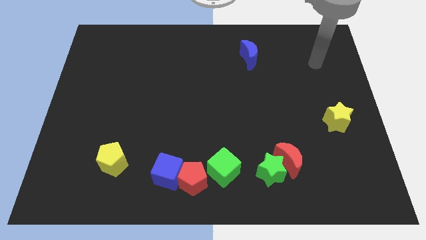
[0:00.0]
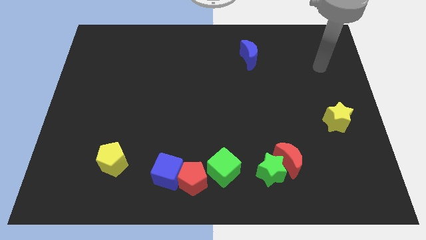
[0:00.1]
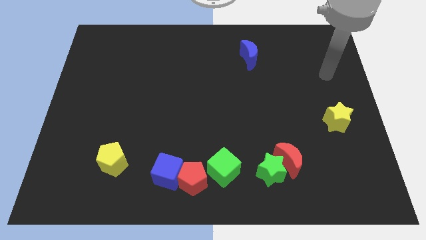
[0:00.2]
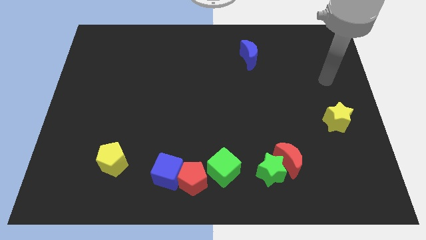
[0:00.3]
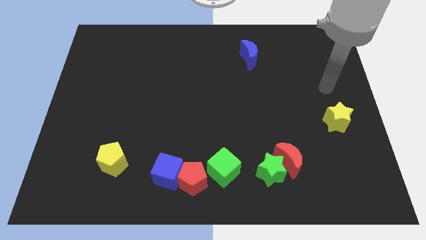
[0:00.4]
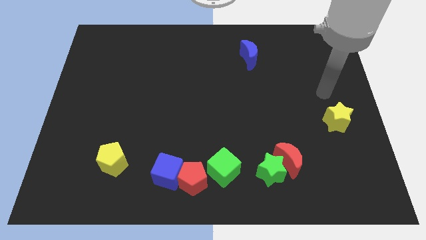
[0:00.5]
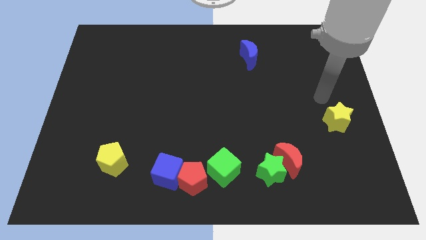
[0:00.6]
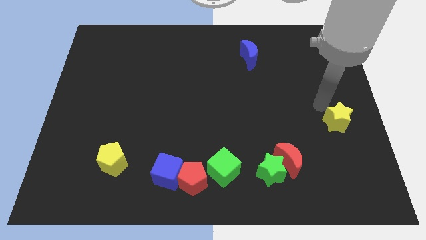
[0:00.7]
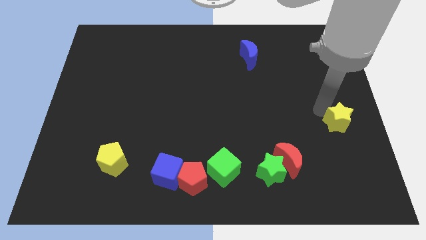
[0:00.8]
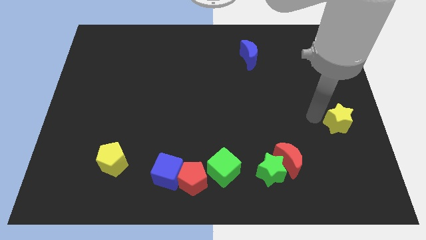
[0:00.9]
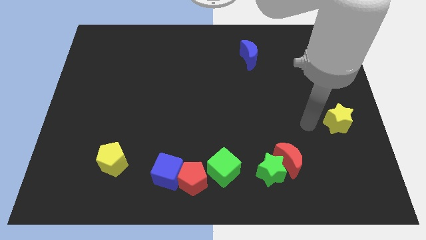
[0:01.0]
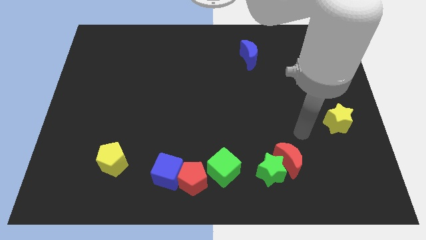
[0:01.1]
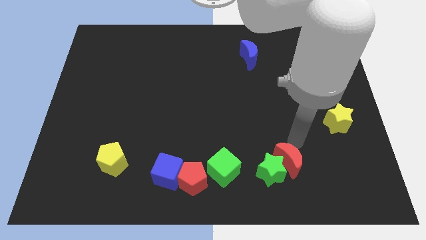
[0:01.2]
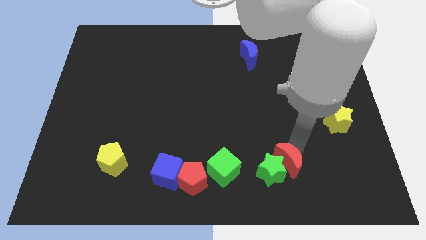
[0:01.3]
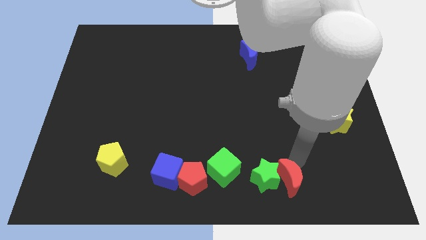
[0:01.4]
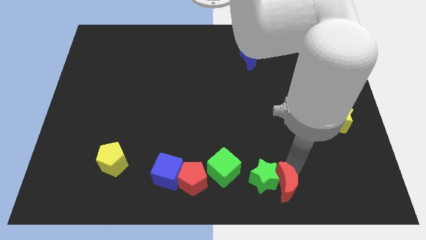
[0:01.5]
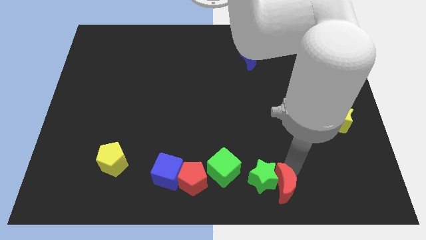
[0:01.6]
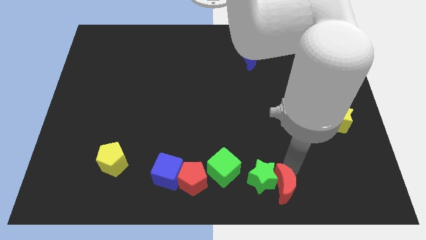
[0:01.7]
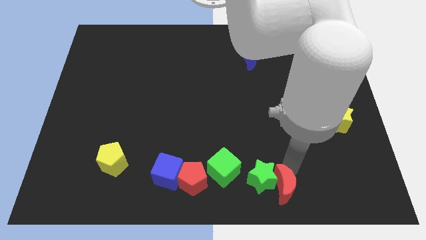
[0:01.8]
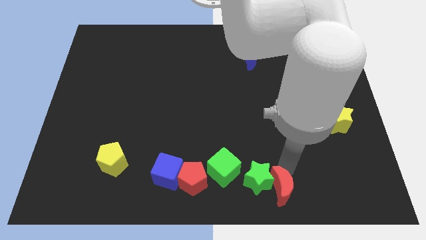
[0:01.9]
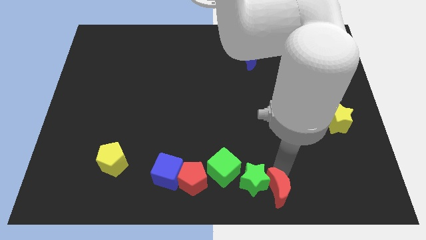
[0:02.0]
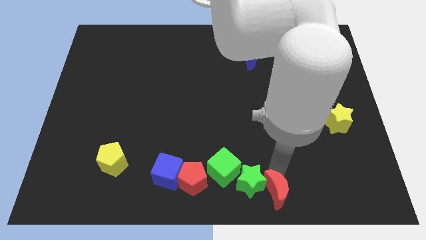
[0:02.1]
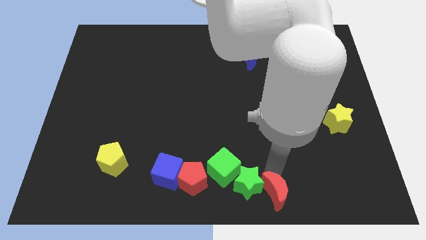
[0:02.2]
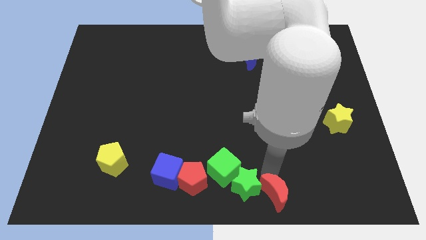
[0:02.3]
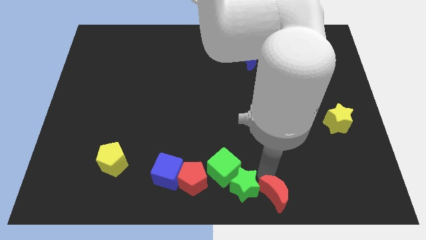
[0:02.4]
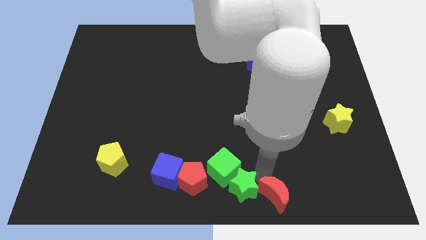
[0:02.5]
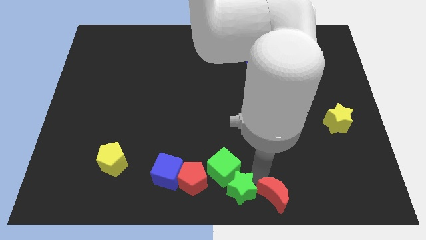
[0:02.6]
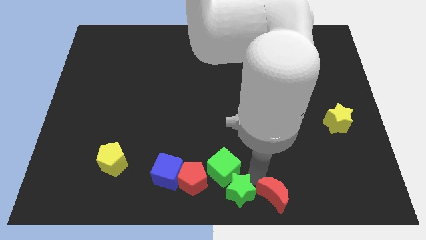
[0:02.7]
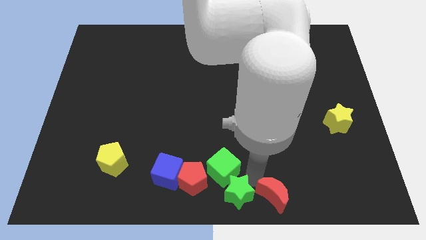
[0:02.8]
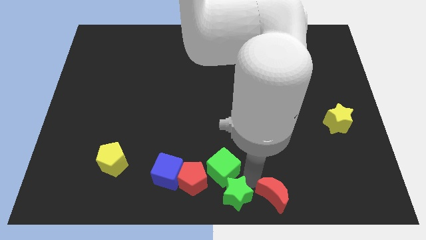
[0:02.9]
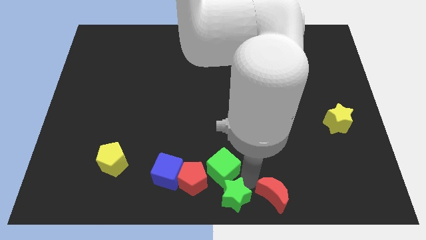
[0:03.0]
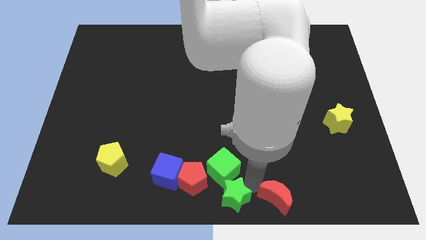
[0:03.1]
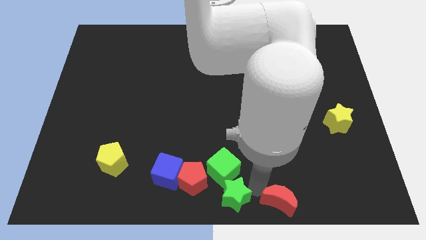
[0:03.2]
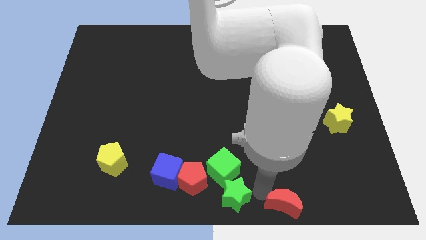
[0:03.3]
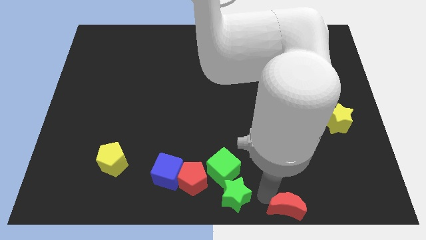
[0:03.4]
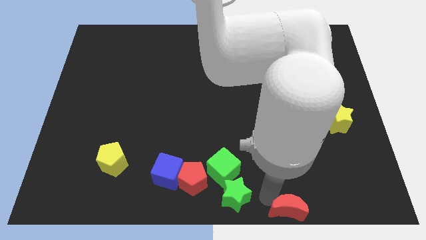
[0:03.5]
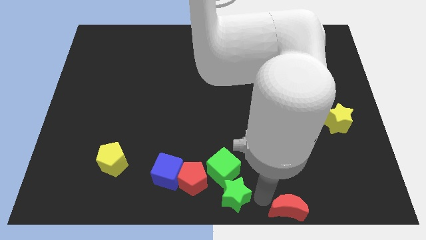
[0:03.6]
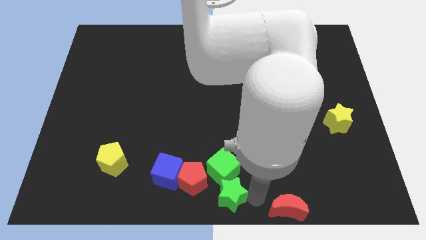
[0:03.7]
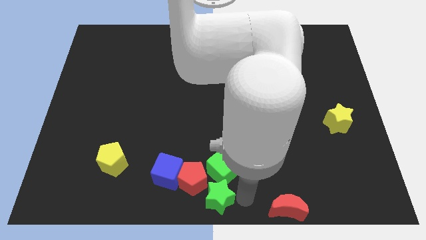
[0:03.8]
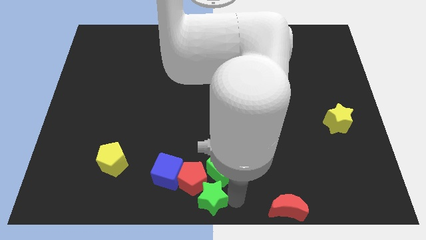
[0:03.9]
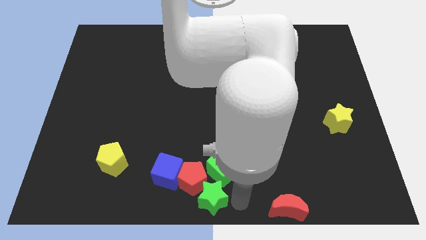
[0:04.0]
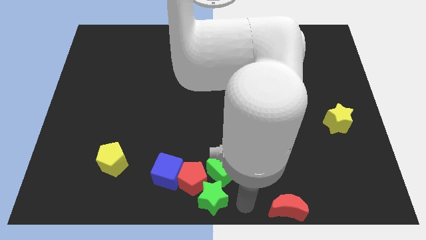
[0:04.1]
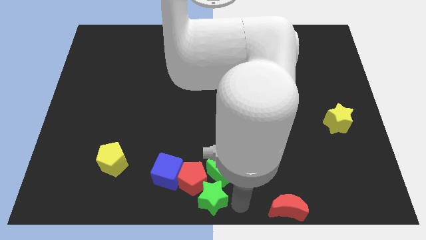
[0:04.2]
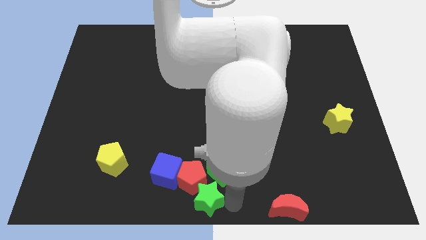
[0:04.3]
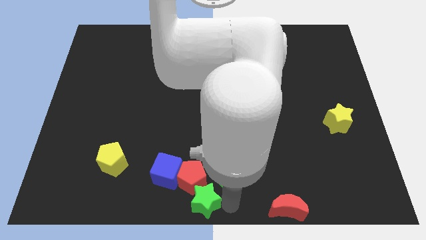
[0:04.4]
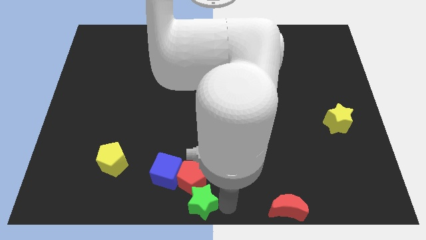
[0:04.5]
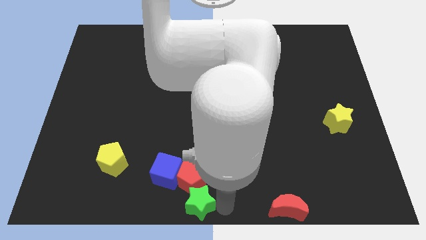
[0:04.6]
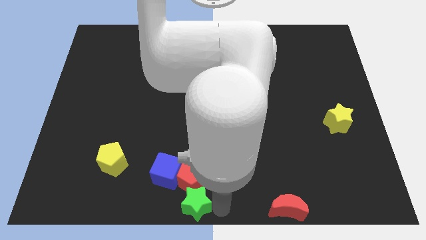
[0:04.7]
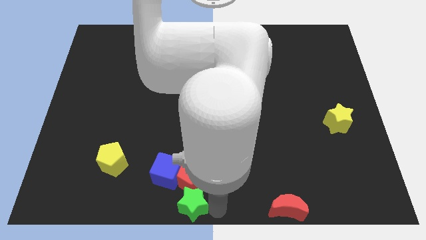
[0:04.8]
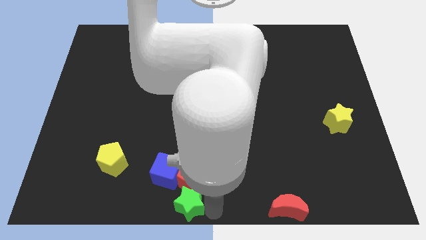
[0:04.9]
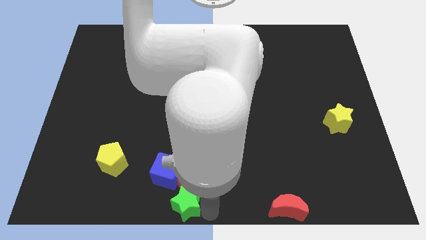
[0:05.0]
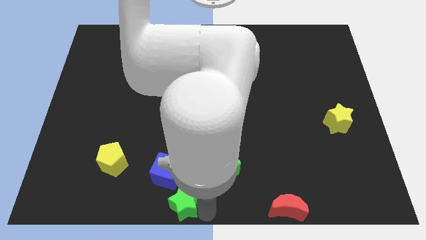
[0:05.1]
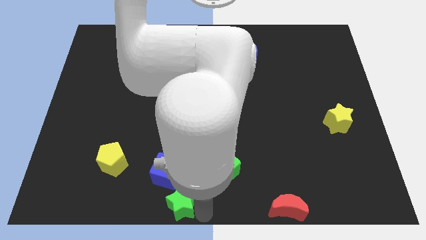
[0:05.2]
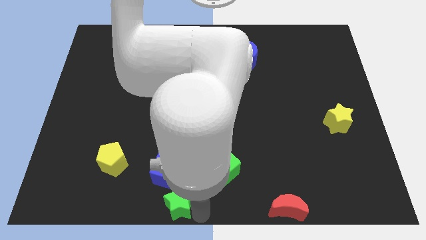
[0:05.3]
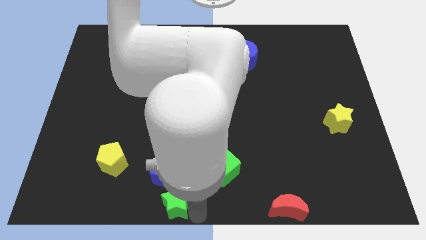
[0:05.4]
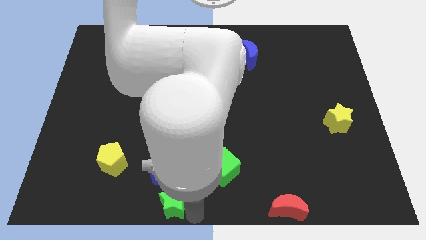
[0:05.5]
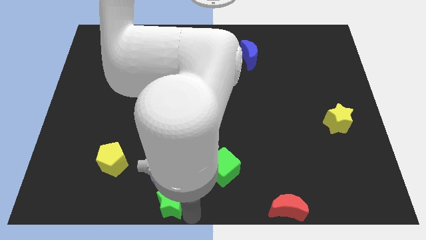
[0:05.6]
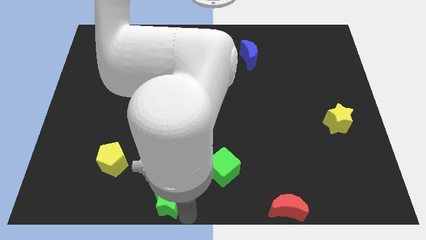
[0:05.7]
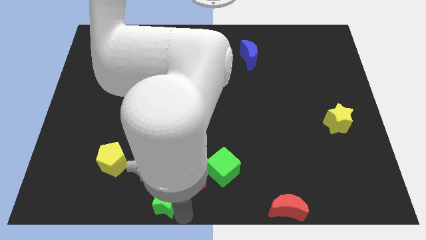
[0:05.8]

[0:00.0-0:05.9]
put the green star next to the blue cube

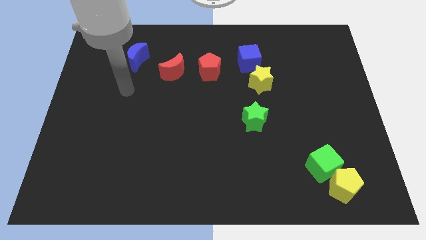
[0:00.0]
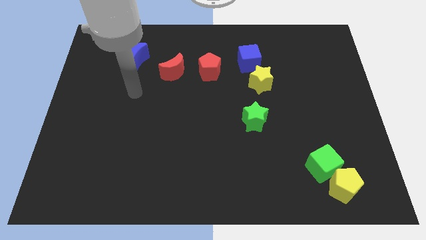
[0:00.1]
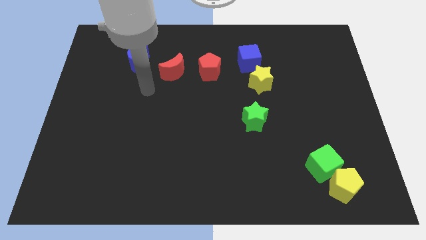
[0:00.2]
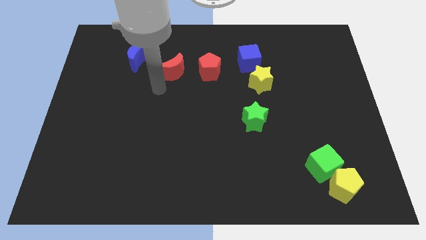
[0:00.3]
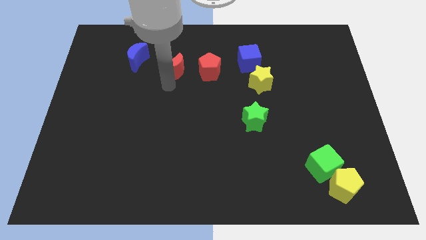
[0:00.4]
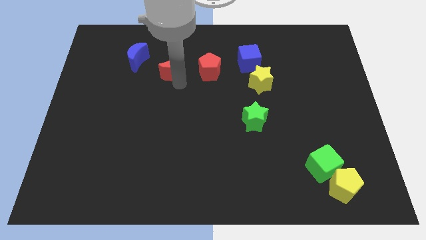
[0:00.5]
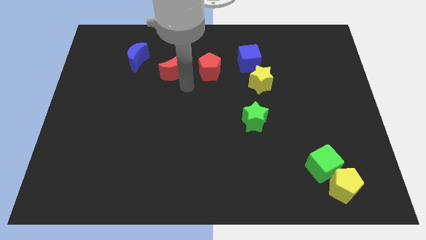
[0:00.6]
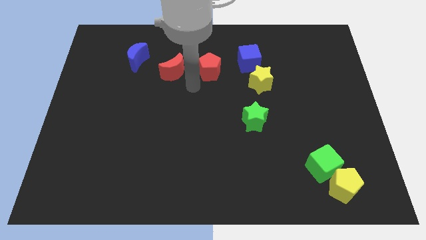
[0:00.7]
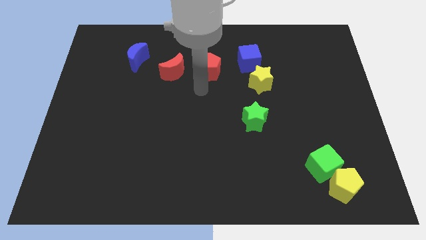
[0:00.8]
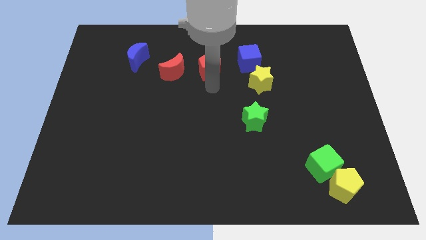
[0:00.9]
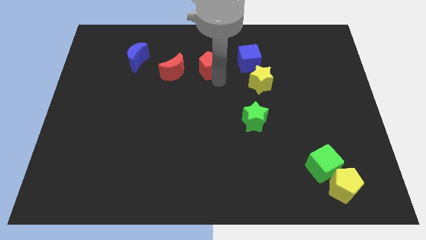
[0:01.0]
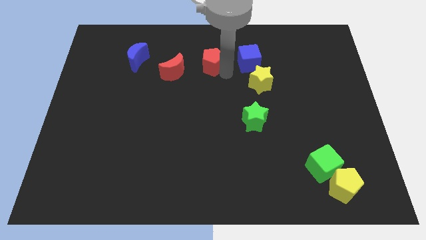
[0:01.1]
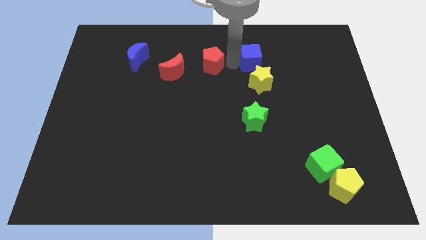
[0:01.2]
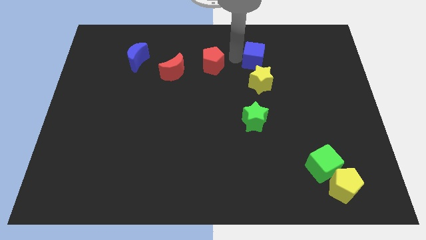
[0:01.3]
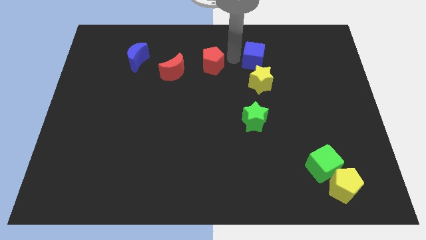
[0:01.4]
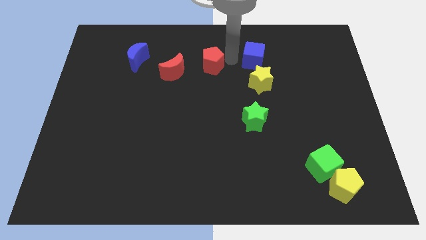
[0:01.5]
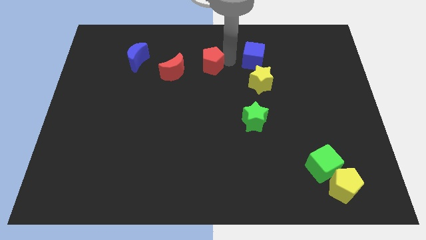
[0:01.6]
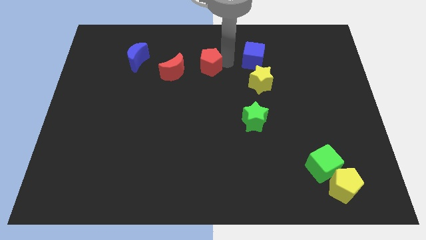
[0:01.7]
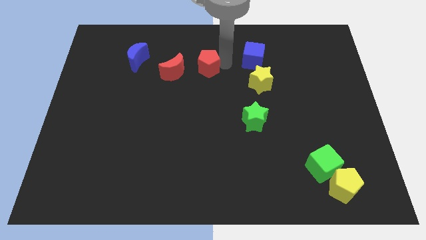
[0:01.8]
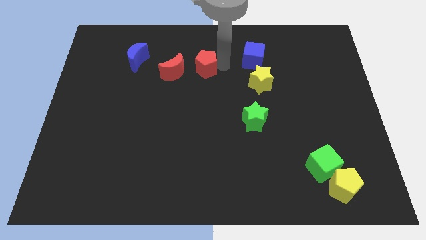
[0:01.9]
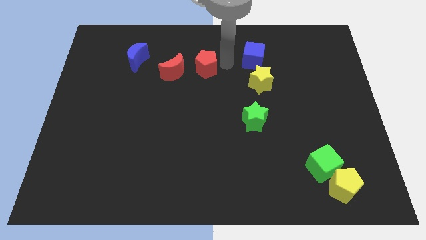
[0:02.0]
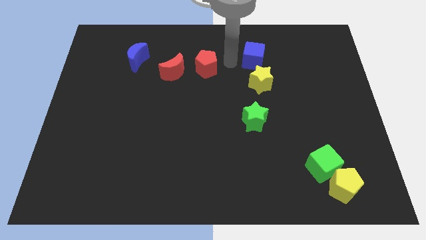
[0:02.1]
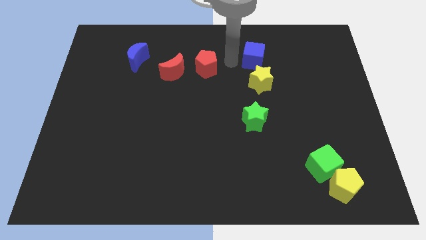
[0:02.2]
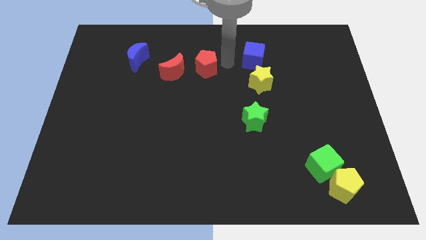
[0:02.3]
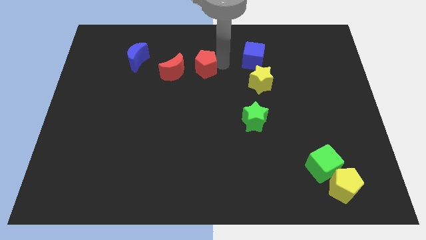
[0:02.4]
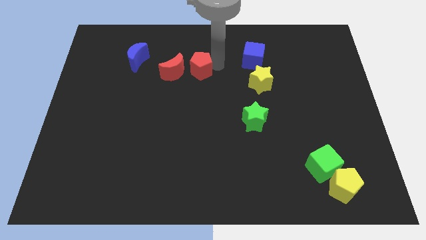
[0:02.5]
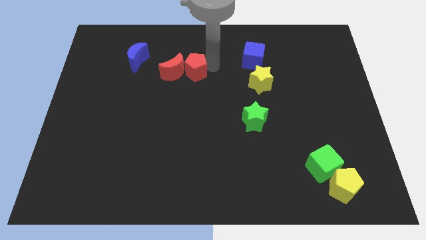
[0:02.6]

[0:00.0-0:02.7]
move the red pentagon next to the red moon

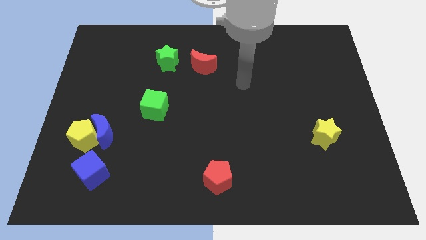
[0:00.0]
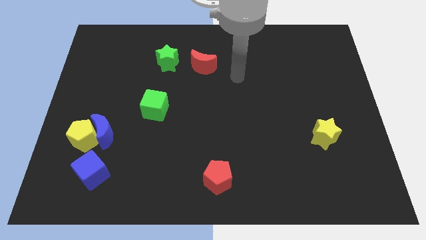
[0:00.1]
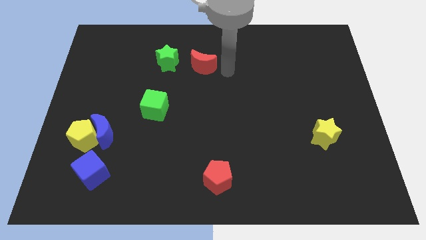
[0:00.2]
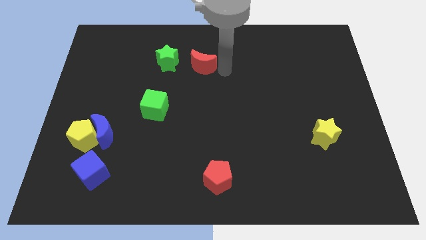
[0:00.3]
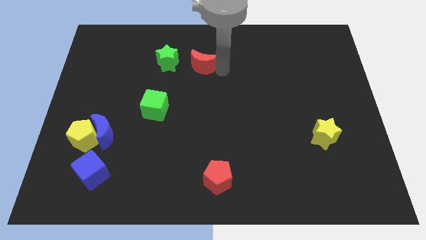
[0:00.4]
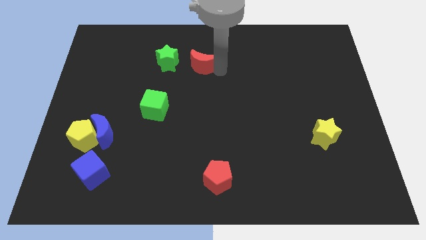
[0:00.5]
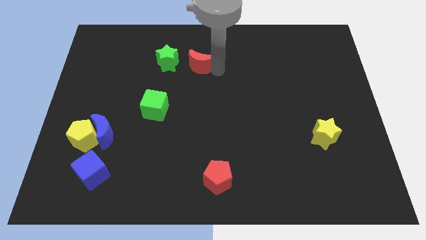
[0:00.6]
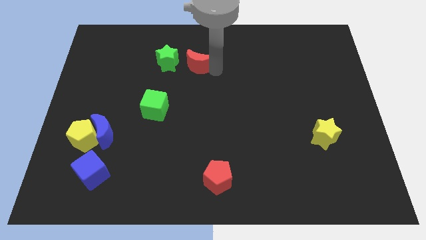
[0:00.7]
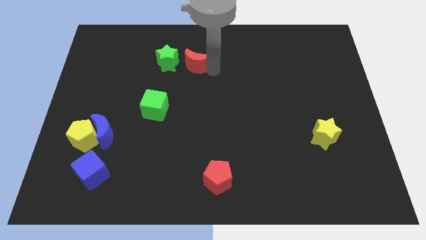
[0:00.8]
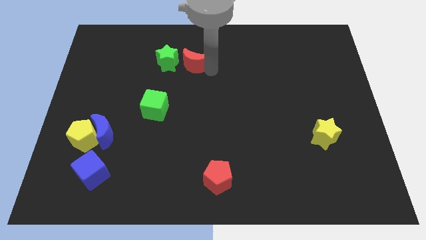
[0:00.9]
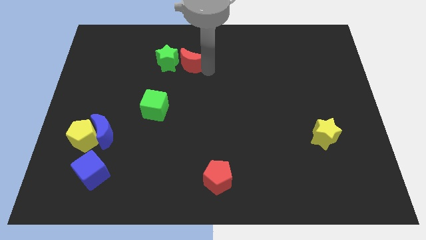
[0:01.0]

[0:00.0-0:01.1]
push the red moon to the green star
